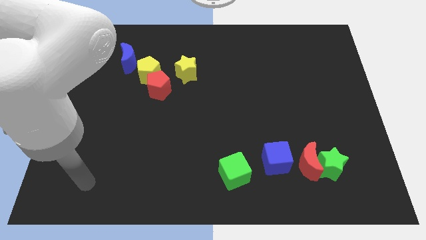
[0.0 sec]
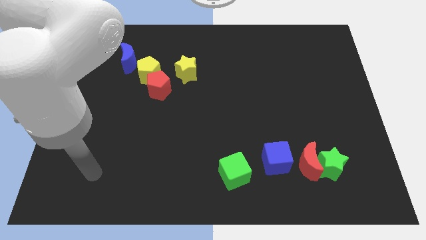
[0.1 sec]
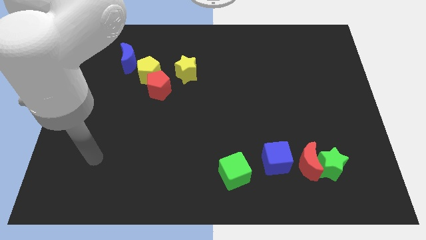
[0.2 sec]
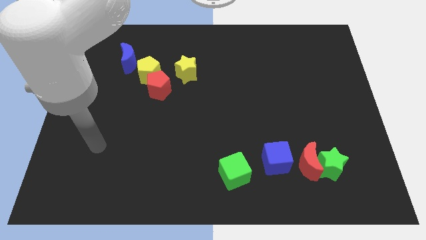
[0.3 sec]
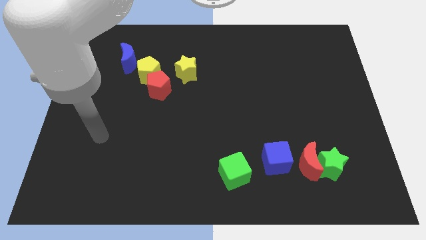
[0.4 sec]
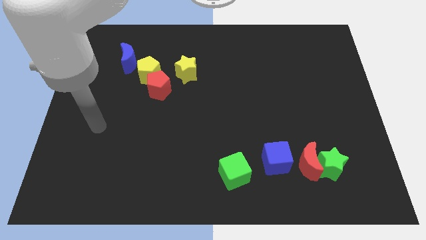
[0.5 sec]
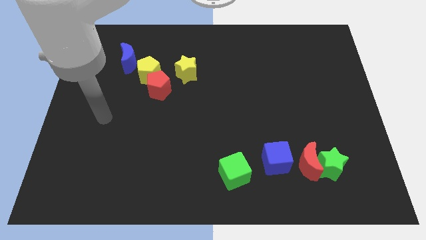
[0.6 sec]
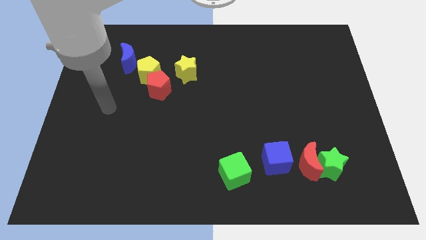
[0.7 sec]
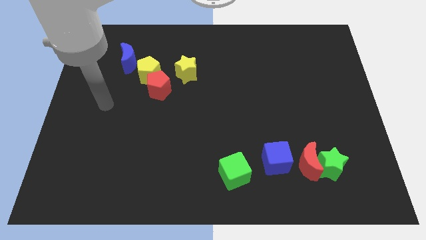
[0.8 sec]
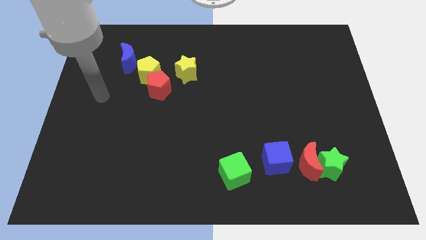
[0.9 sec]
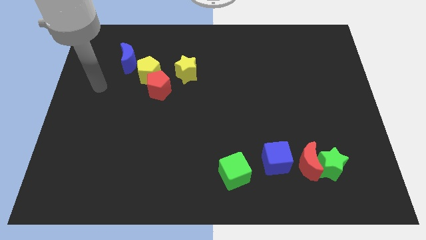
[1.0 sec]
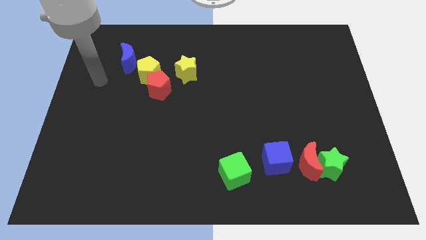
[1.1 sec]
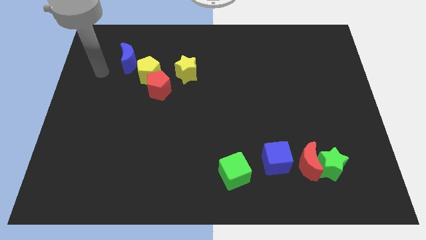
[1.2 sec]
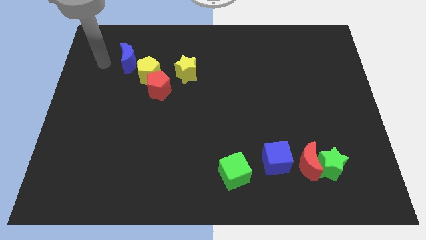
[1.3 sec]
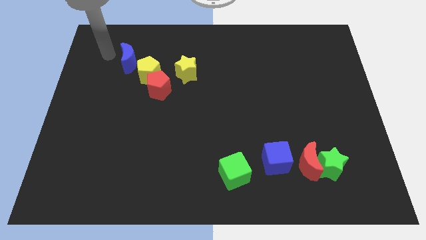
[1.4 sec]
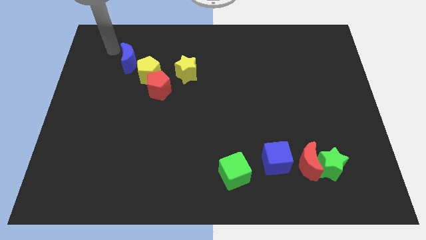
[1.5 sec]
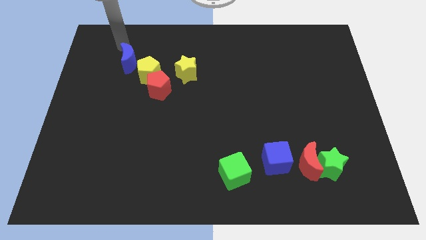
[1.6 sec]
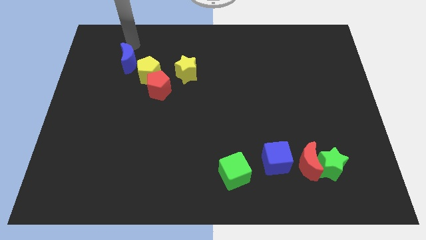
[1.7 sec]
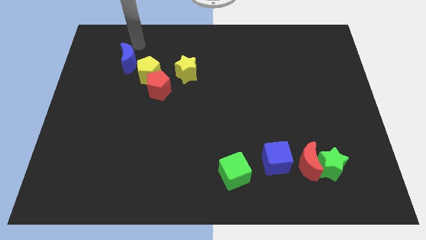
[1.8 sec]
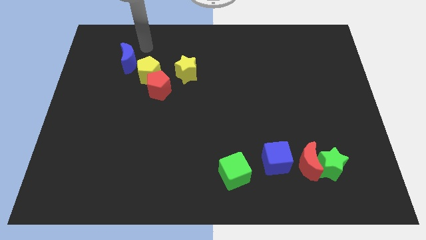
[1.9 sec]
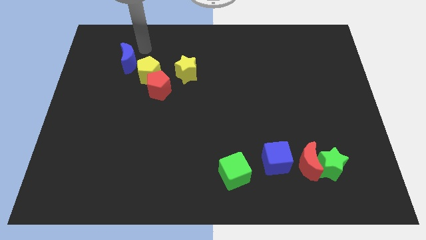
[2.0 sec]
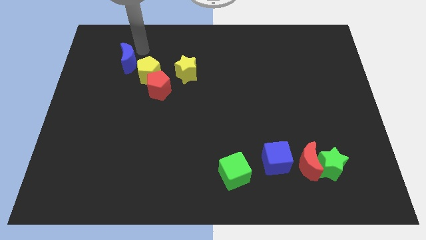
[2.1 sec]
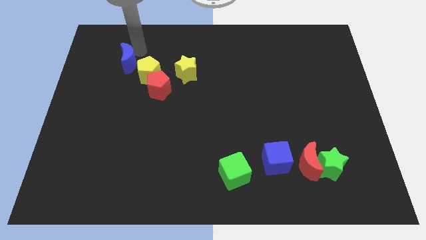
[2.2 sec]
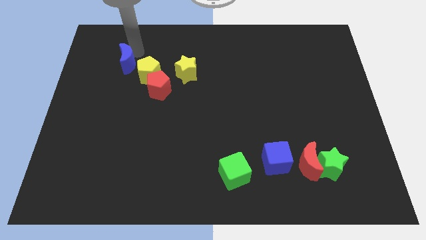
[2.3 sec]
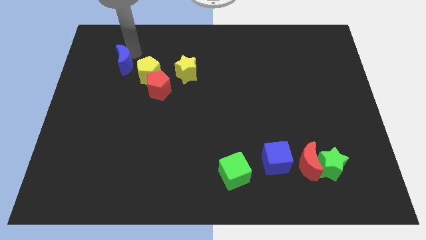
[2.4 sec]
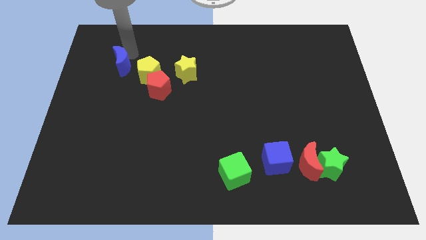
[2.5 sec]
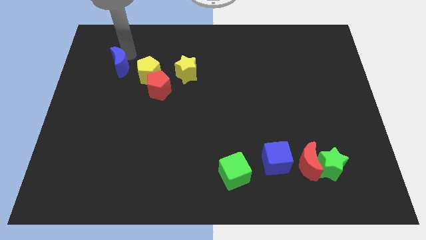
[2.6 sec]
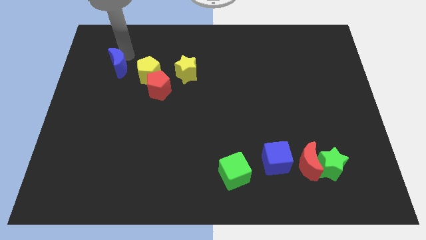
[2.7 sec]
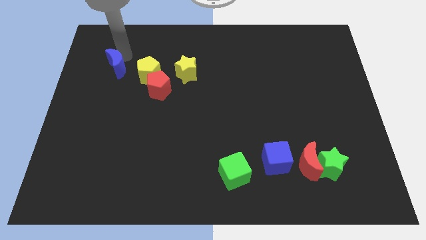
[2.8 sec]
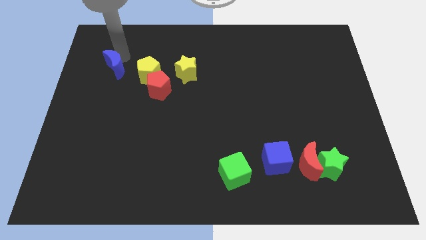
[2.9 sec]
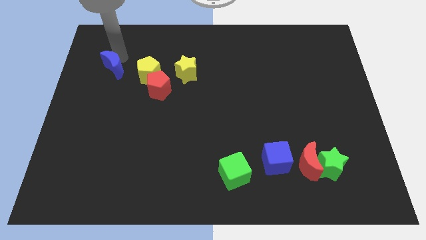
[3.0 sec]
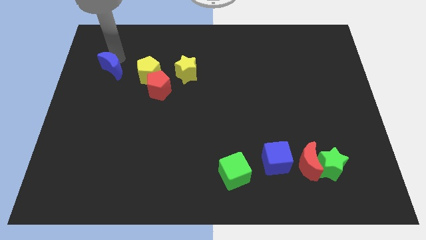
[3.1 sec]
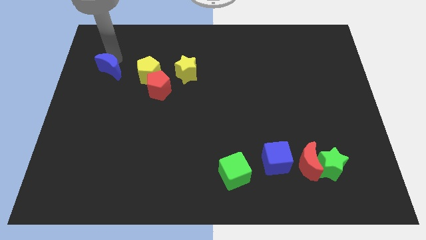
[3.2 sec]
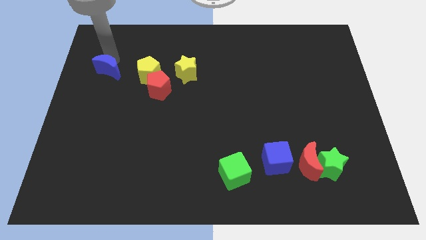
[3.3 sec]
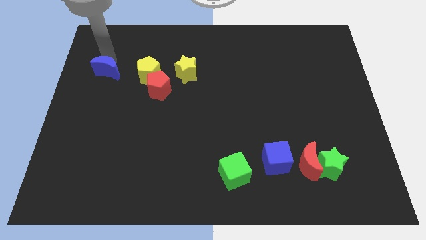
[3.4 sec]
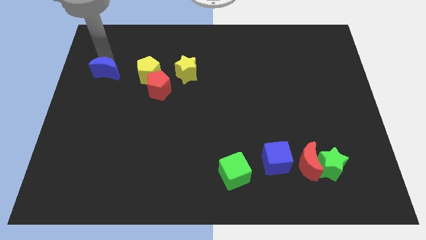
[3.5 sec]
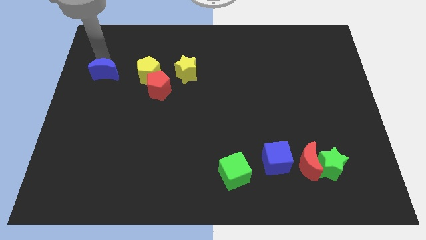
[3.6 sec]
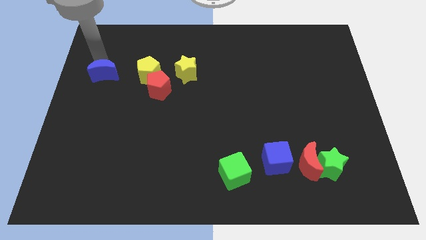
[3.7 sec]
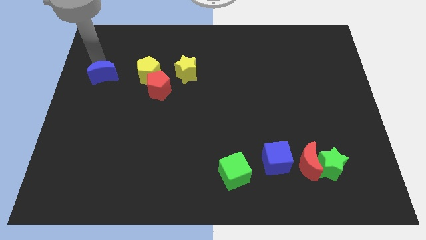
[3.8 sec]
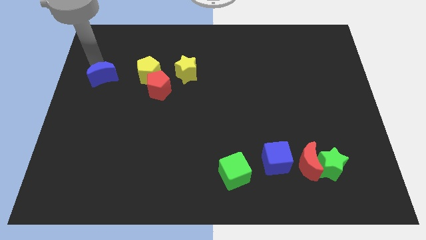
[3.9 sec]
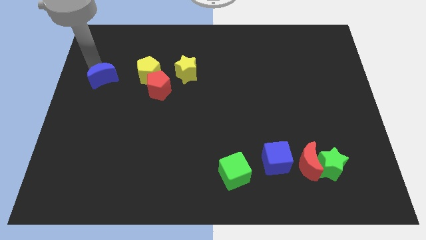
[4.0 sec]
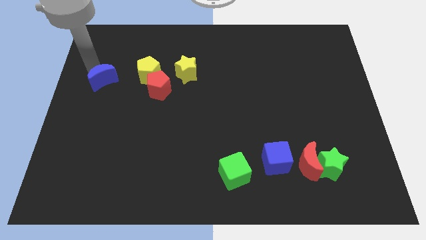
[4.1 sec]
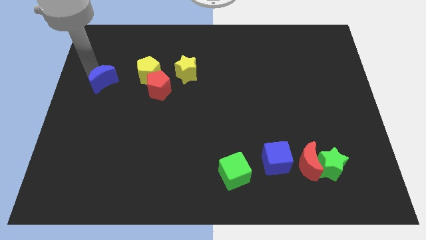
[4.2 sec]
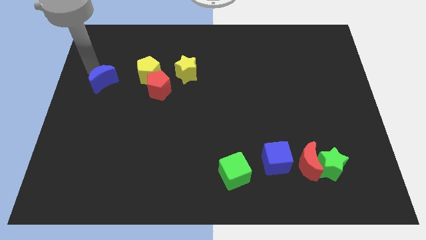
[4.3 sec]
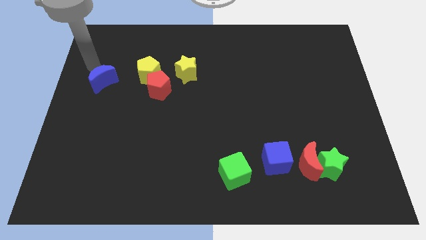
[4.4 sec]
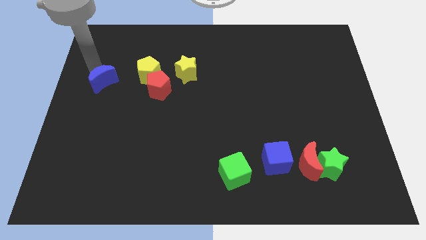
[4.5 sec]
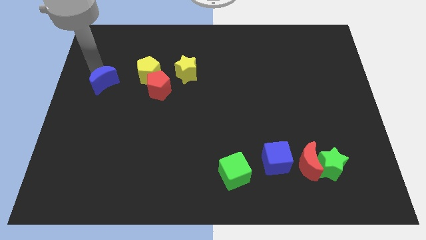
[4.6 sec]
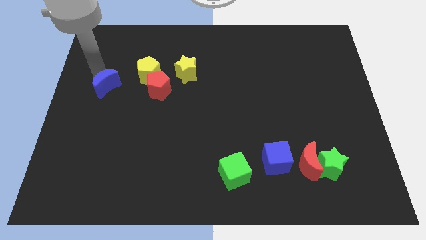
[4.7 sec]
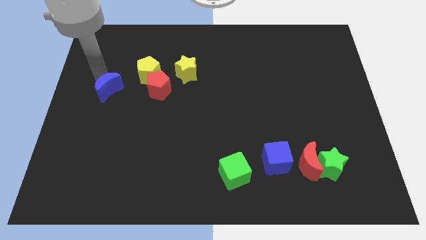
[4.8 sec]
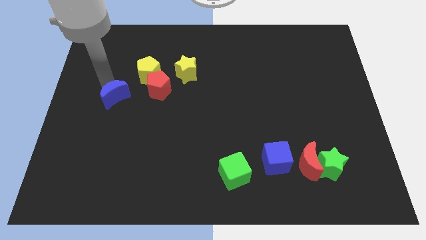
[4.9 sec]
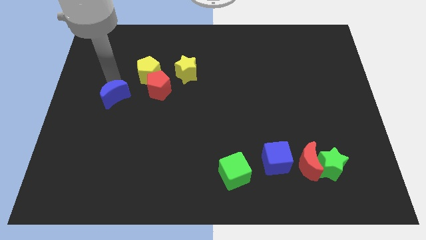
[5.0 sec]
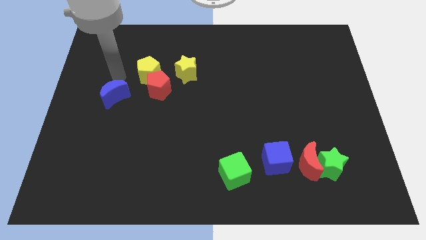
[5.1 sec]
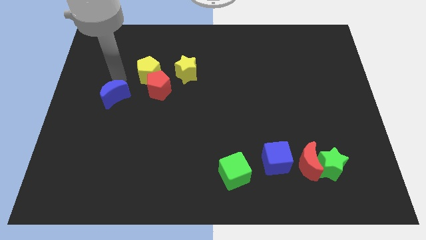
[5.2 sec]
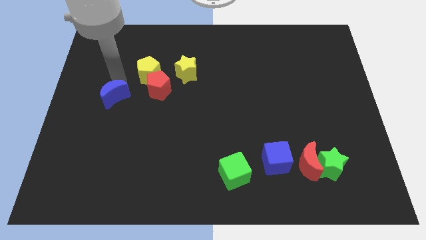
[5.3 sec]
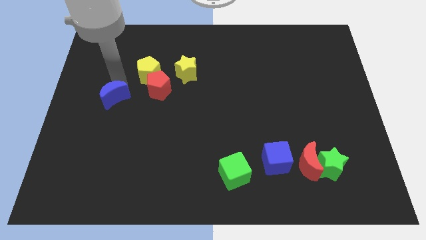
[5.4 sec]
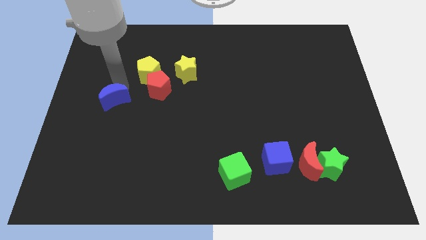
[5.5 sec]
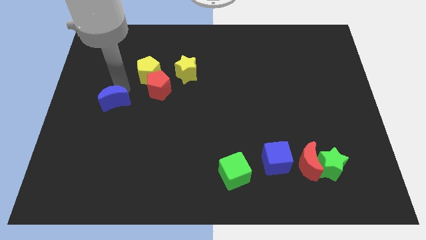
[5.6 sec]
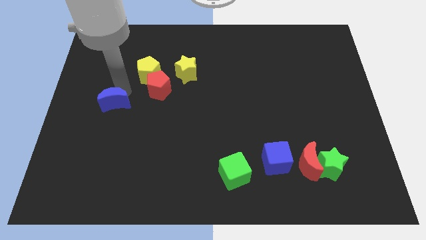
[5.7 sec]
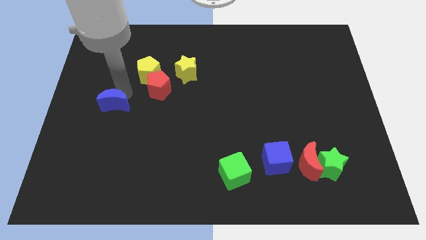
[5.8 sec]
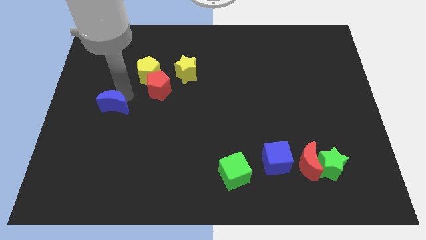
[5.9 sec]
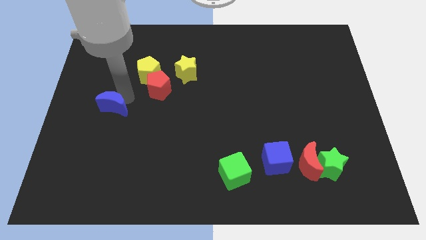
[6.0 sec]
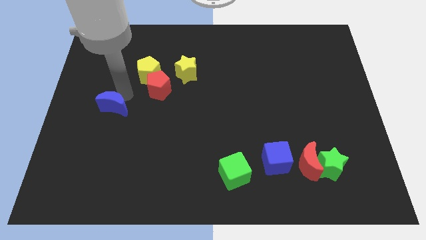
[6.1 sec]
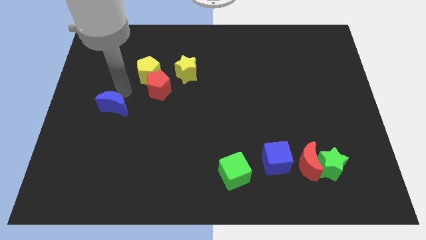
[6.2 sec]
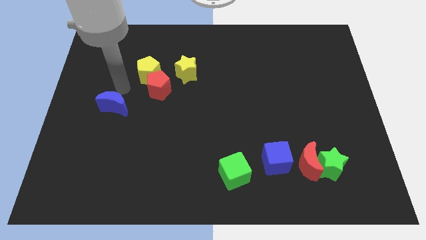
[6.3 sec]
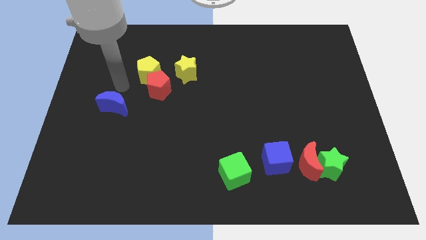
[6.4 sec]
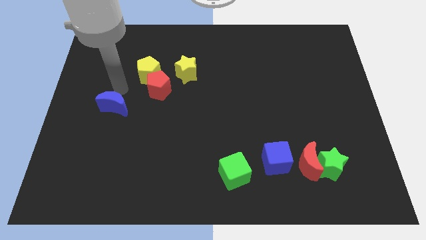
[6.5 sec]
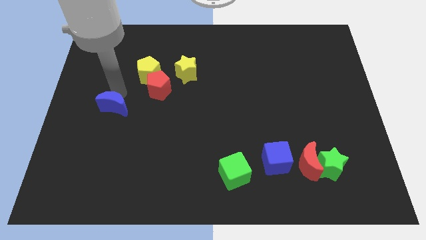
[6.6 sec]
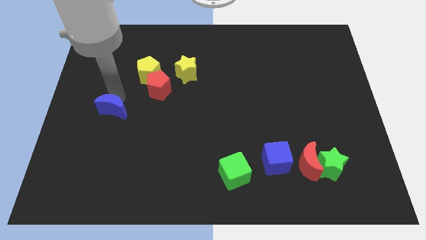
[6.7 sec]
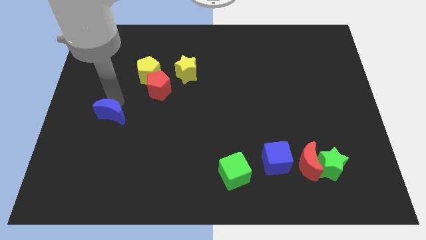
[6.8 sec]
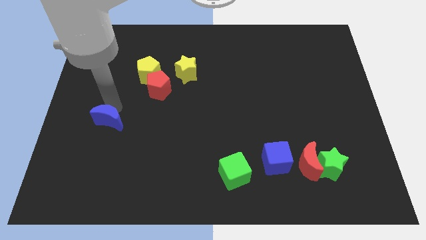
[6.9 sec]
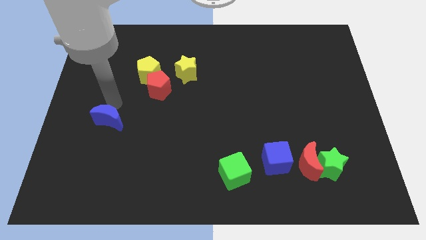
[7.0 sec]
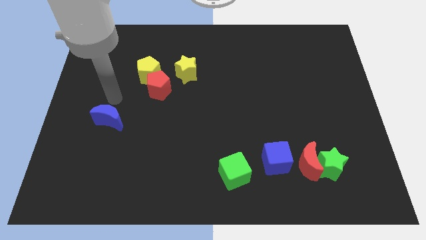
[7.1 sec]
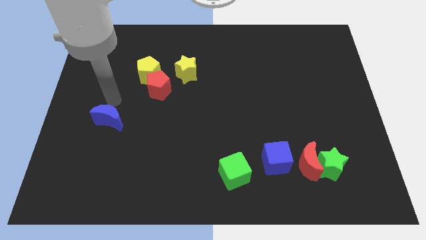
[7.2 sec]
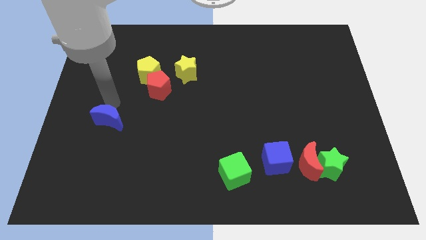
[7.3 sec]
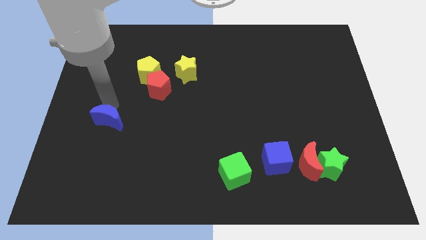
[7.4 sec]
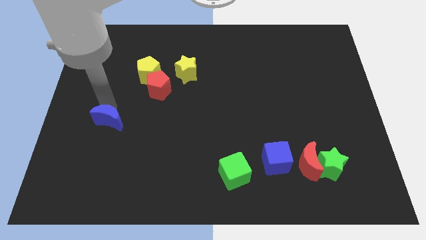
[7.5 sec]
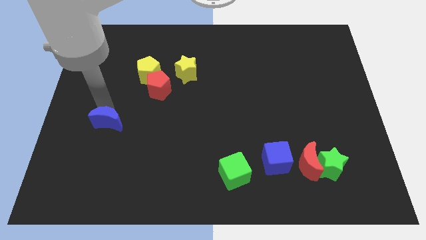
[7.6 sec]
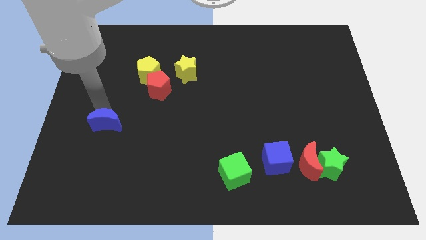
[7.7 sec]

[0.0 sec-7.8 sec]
slide the blue moon downwards
